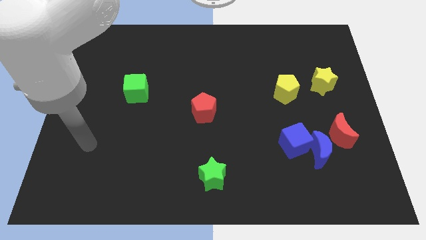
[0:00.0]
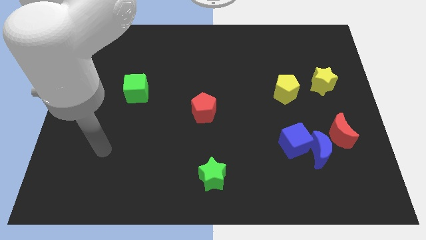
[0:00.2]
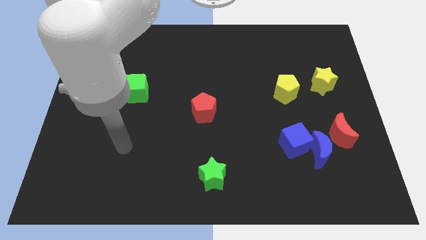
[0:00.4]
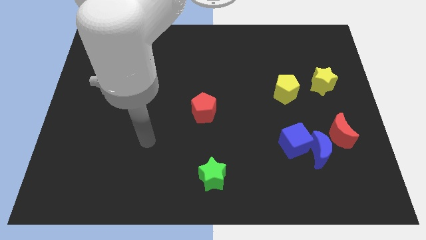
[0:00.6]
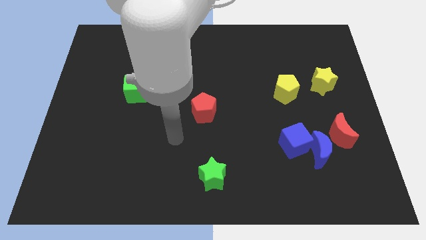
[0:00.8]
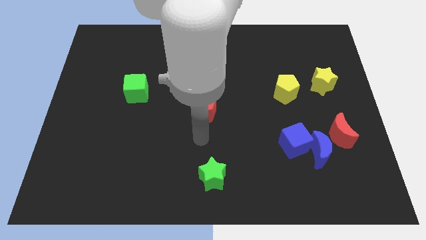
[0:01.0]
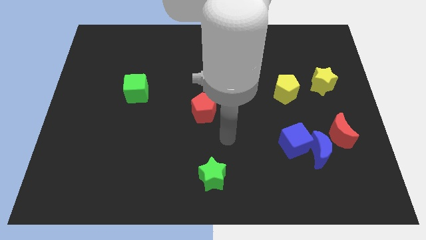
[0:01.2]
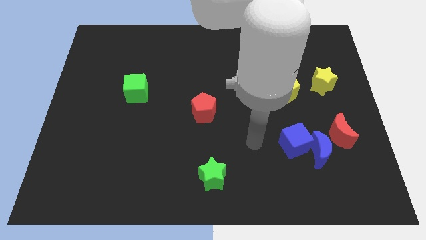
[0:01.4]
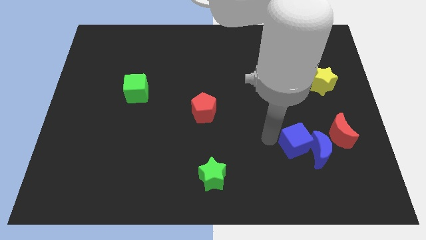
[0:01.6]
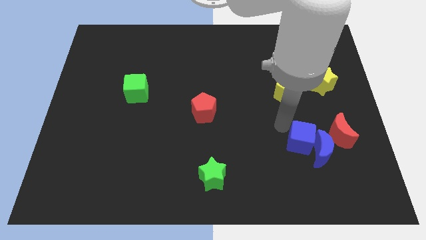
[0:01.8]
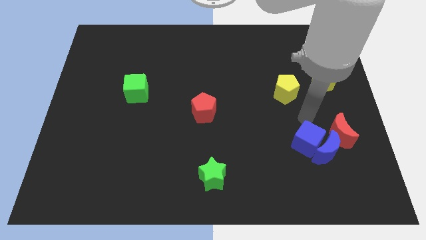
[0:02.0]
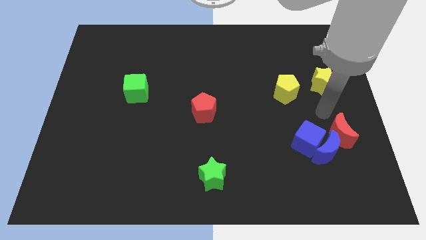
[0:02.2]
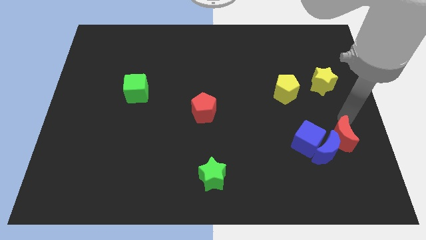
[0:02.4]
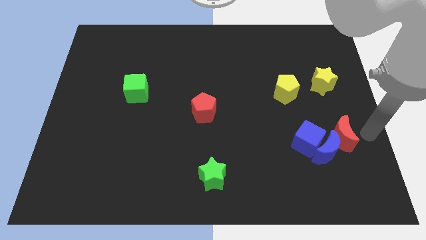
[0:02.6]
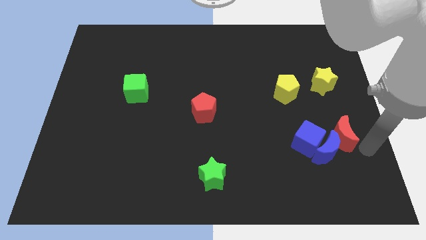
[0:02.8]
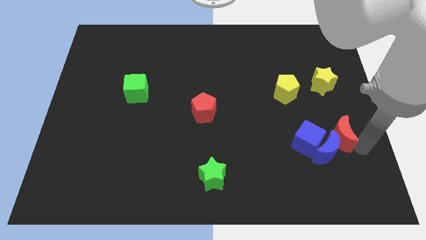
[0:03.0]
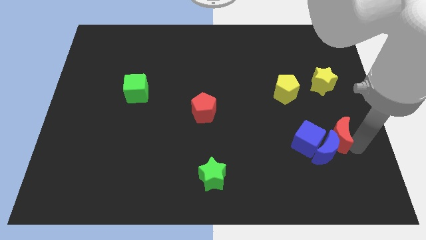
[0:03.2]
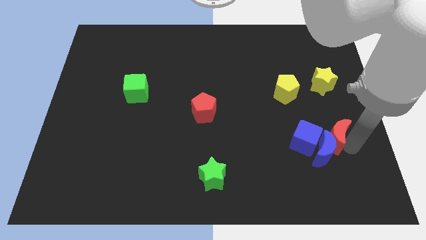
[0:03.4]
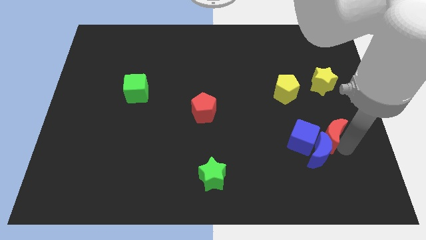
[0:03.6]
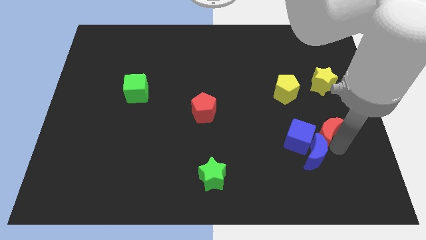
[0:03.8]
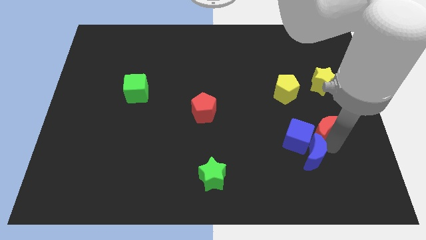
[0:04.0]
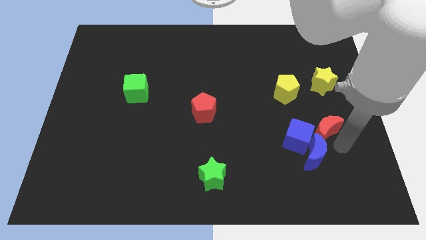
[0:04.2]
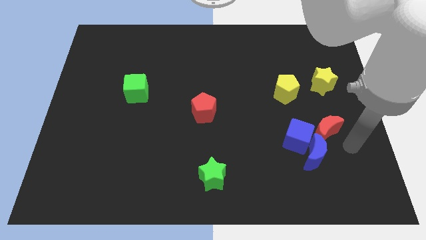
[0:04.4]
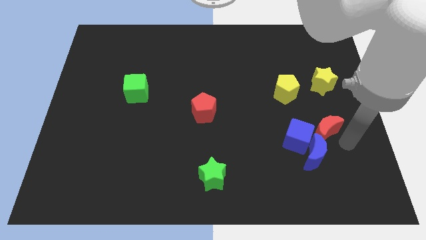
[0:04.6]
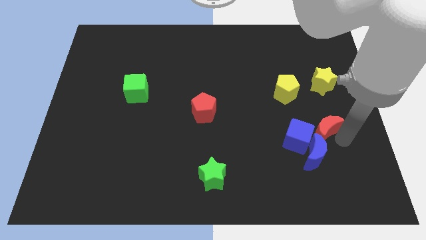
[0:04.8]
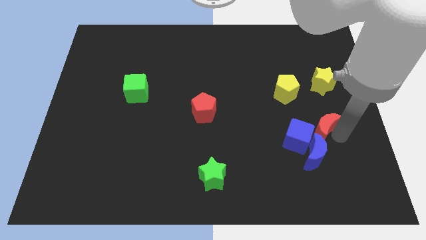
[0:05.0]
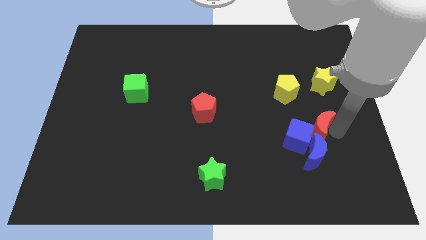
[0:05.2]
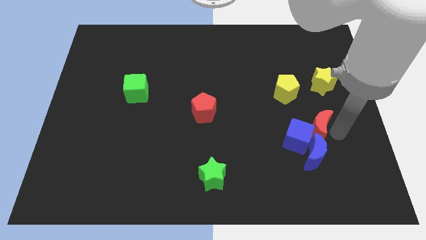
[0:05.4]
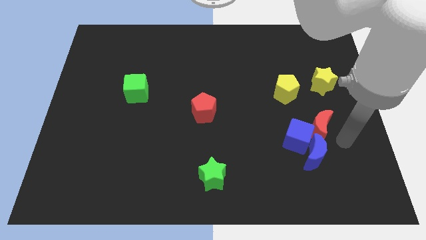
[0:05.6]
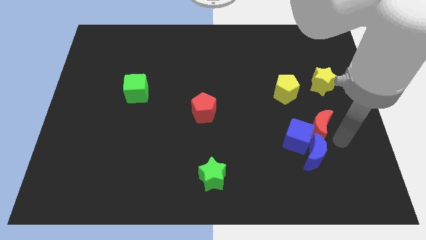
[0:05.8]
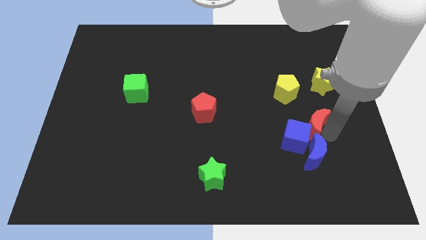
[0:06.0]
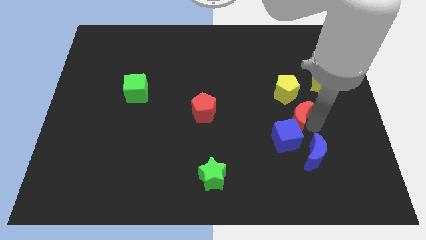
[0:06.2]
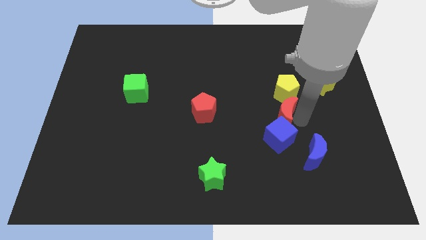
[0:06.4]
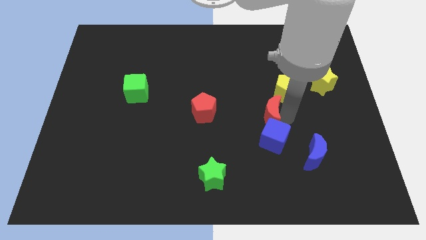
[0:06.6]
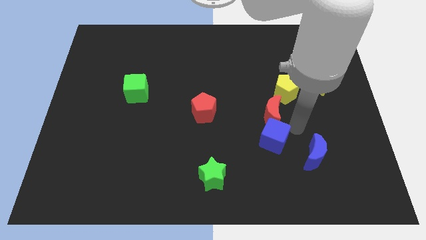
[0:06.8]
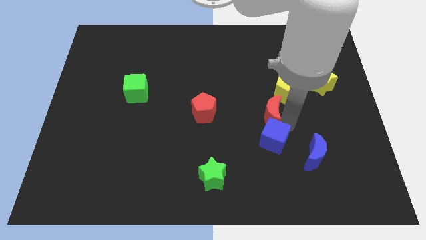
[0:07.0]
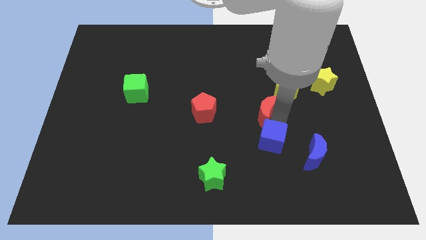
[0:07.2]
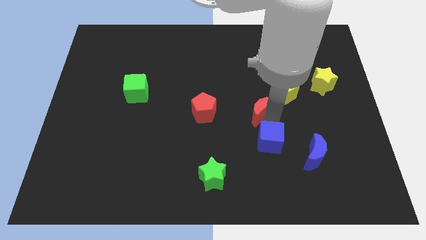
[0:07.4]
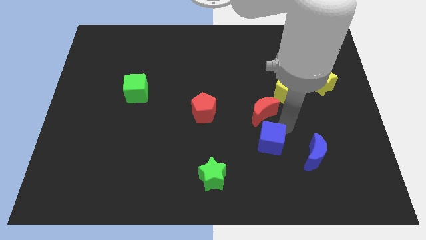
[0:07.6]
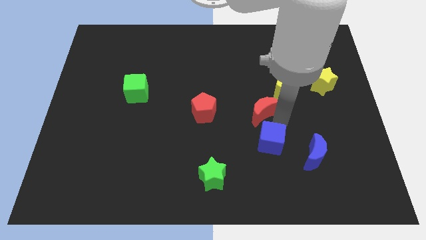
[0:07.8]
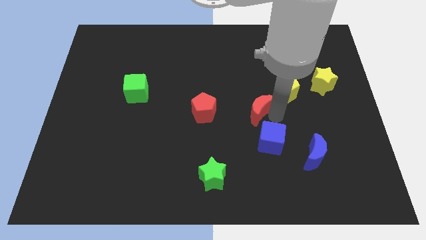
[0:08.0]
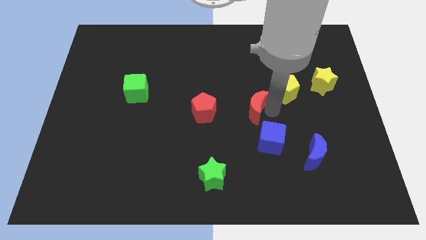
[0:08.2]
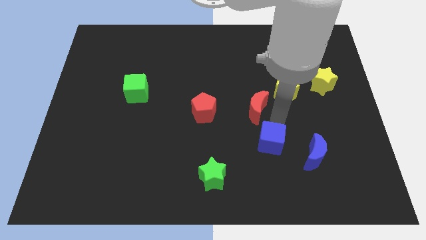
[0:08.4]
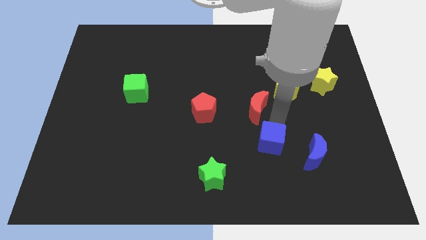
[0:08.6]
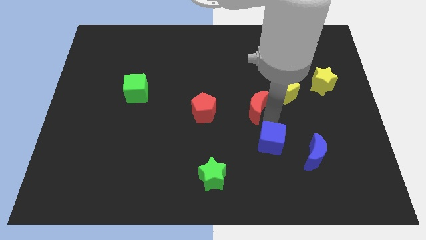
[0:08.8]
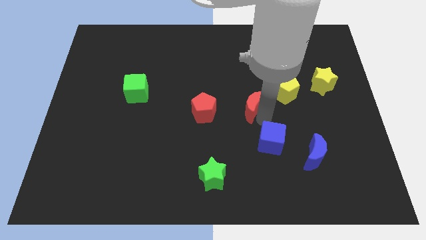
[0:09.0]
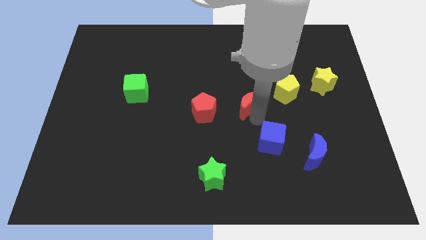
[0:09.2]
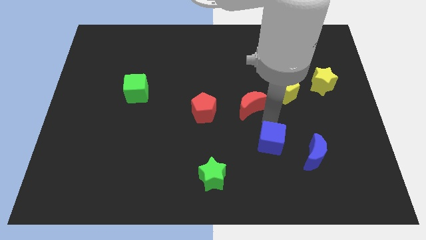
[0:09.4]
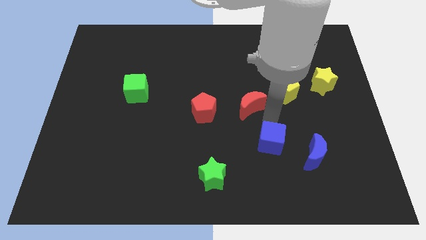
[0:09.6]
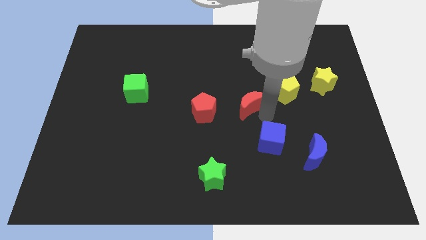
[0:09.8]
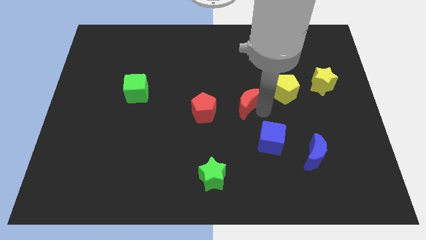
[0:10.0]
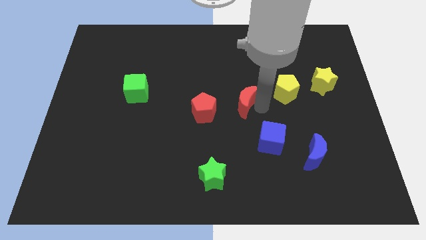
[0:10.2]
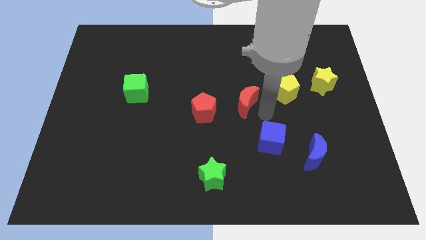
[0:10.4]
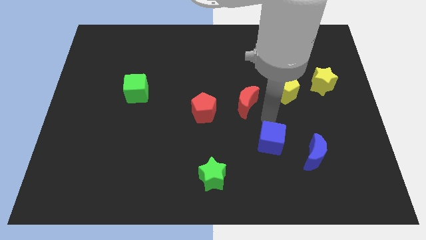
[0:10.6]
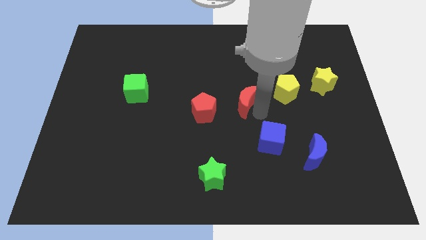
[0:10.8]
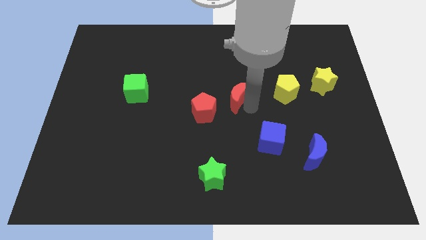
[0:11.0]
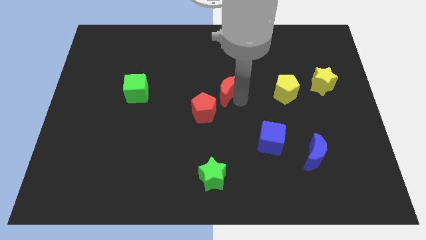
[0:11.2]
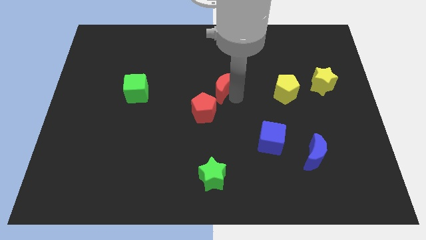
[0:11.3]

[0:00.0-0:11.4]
move the red moon to the top of the red pentagon

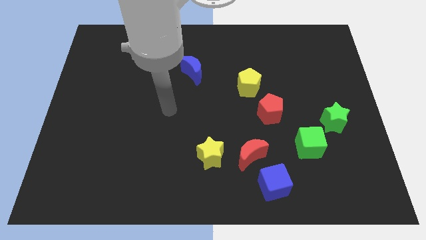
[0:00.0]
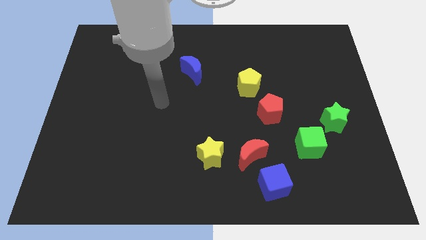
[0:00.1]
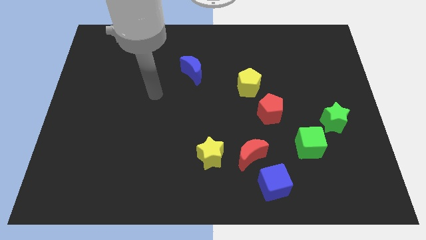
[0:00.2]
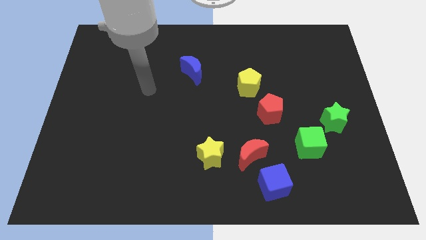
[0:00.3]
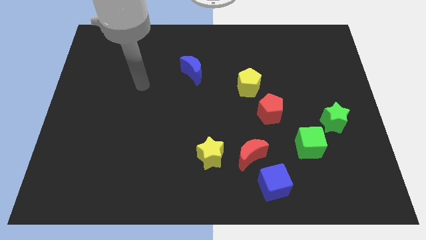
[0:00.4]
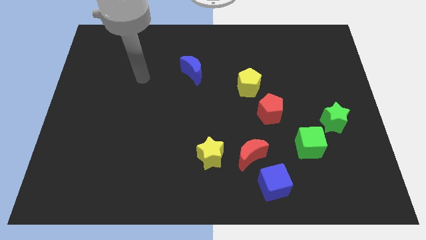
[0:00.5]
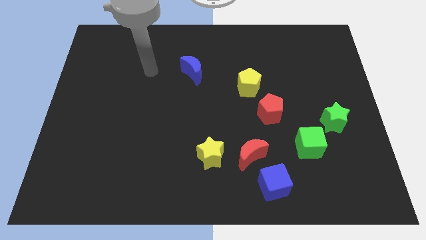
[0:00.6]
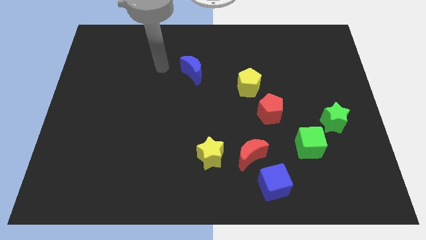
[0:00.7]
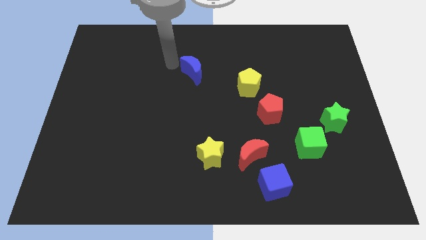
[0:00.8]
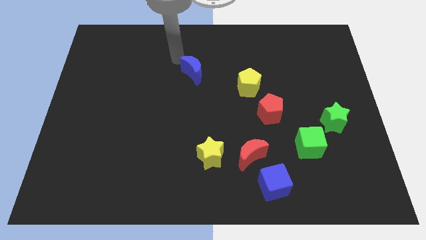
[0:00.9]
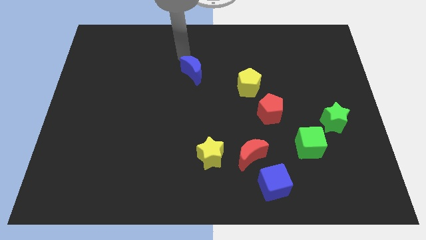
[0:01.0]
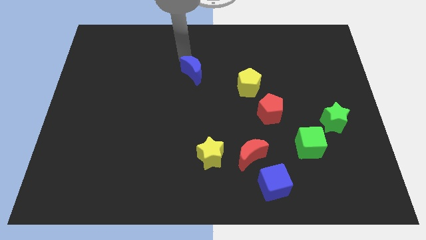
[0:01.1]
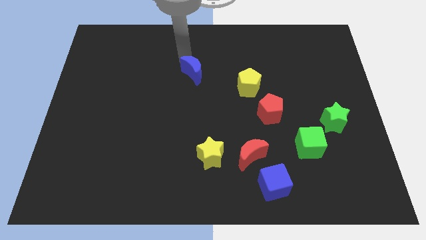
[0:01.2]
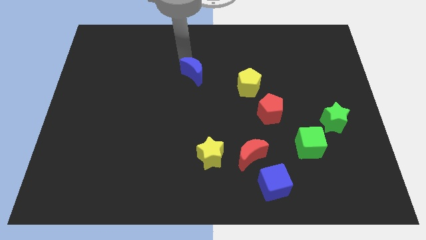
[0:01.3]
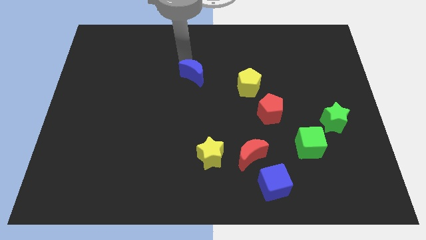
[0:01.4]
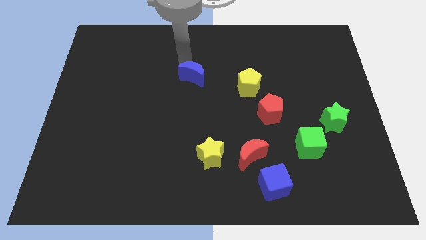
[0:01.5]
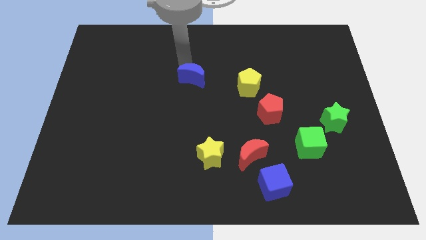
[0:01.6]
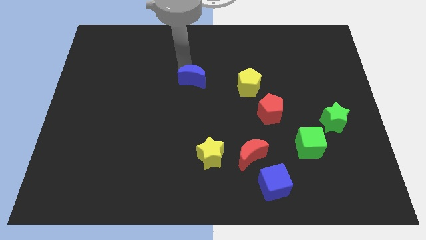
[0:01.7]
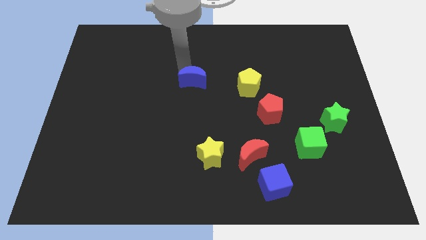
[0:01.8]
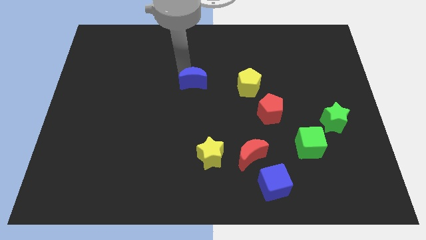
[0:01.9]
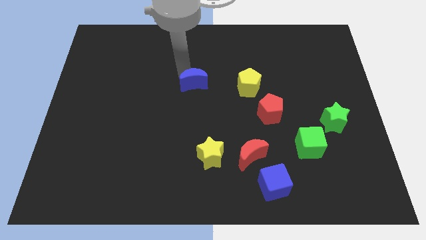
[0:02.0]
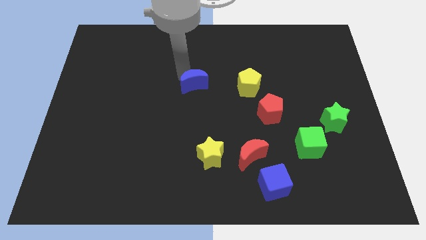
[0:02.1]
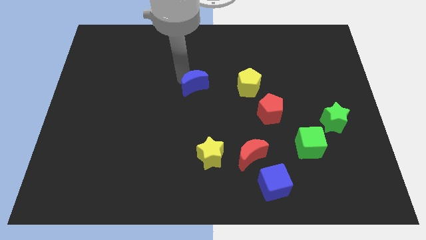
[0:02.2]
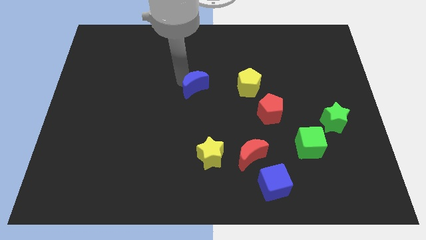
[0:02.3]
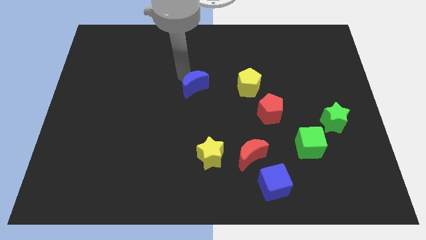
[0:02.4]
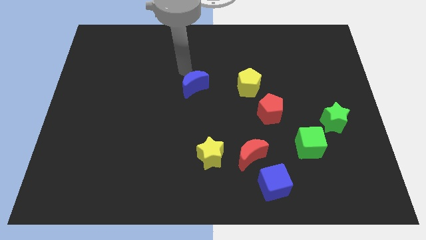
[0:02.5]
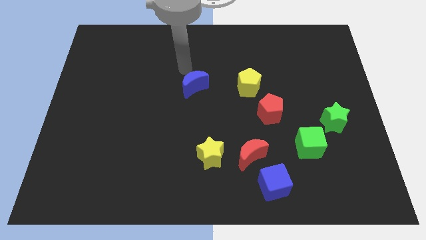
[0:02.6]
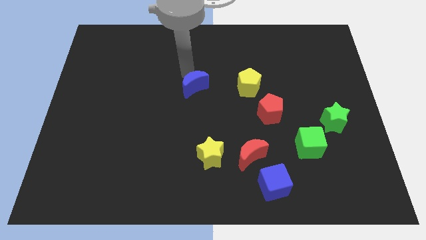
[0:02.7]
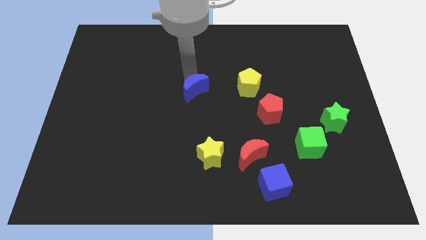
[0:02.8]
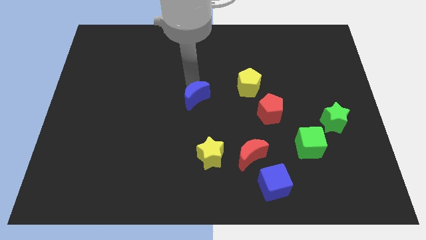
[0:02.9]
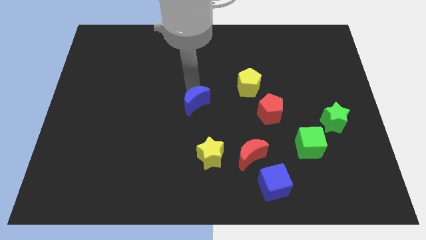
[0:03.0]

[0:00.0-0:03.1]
move the blue moon above the yellow star
